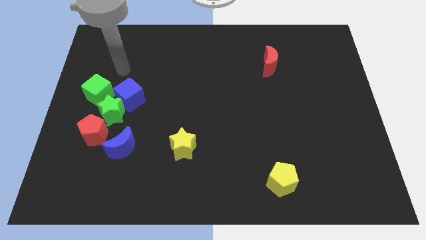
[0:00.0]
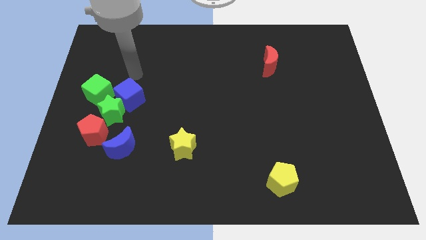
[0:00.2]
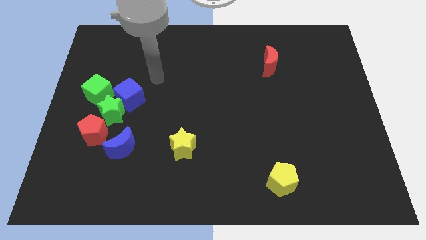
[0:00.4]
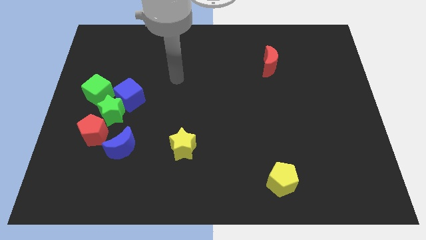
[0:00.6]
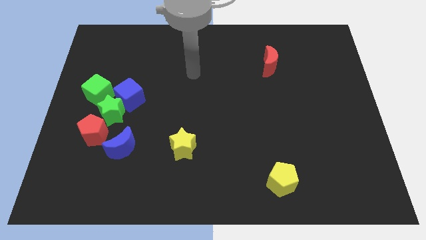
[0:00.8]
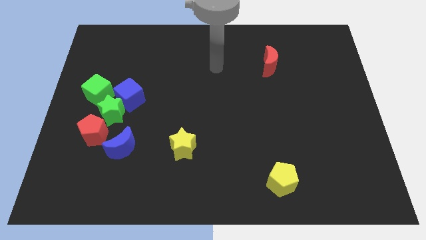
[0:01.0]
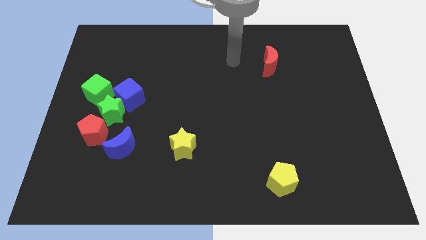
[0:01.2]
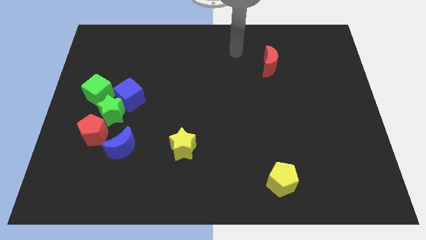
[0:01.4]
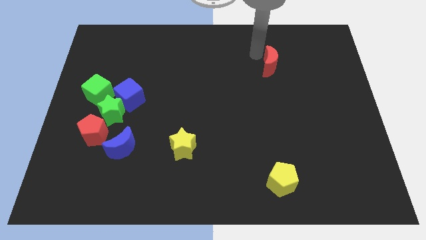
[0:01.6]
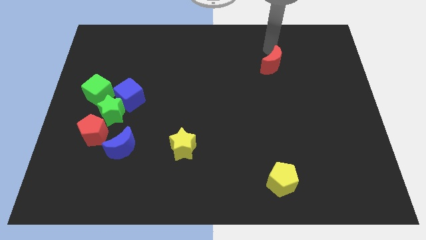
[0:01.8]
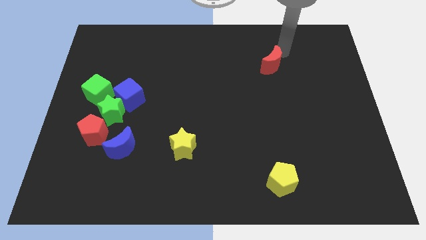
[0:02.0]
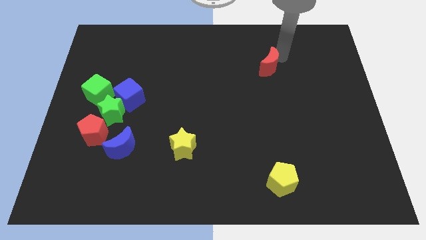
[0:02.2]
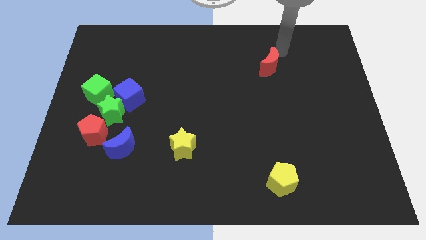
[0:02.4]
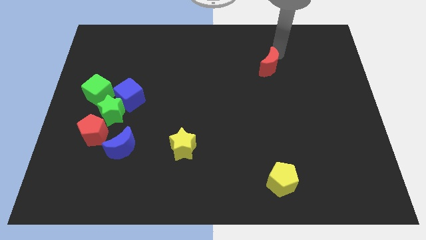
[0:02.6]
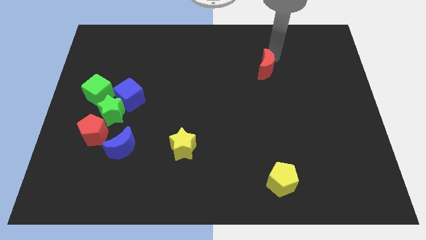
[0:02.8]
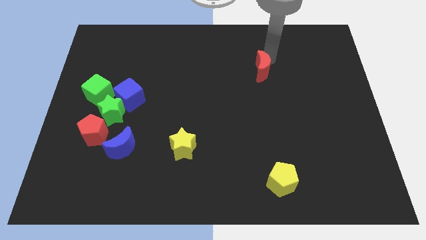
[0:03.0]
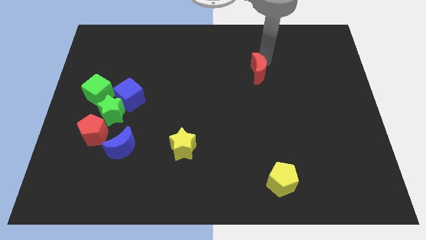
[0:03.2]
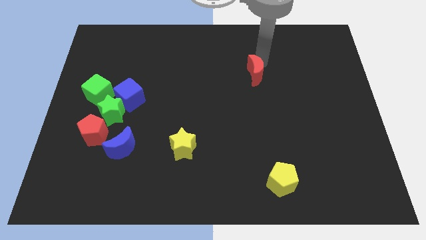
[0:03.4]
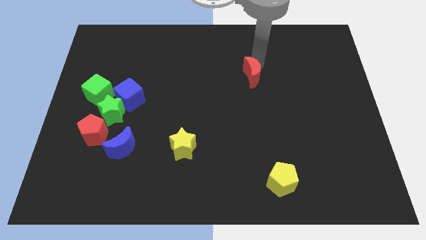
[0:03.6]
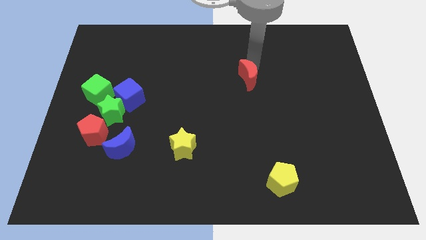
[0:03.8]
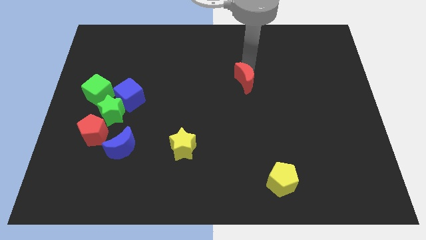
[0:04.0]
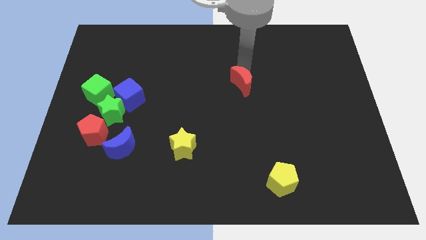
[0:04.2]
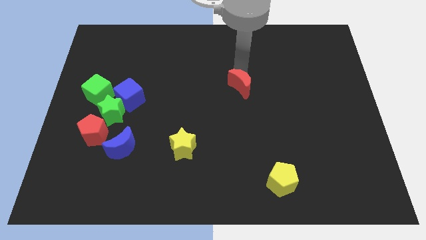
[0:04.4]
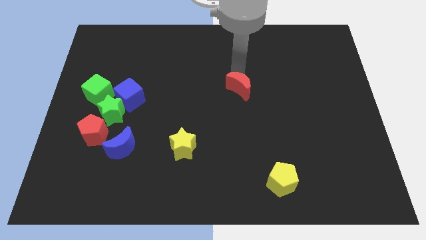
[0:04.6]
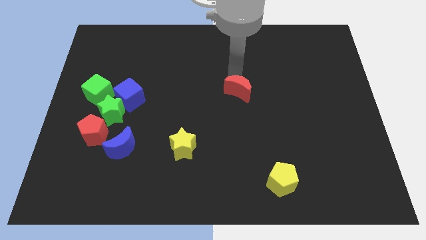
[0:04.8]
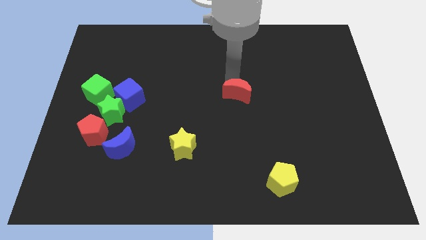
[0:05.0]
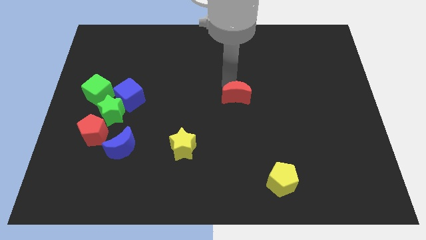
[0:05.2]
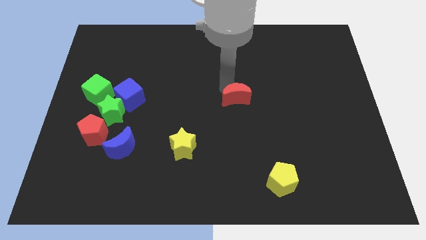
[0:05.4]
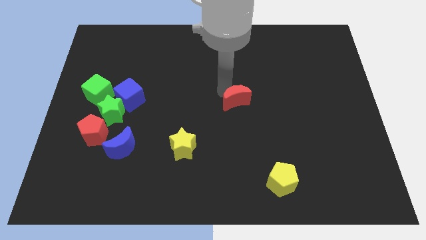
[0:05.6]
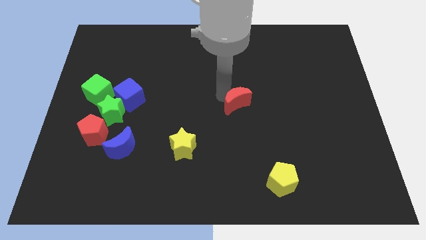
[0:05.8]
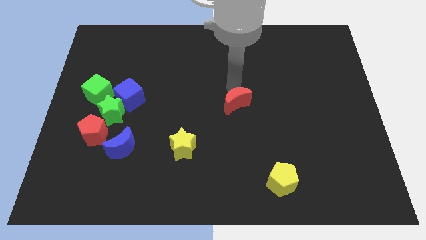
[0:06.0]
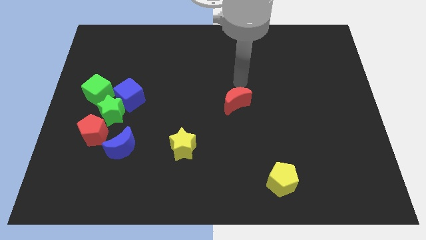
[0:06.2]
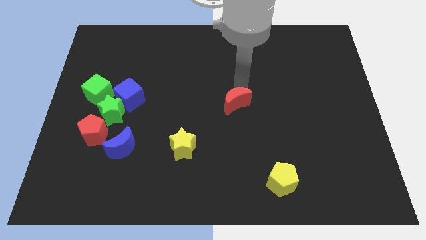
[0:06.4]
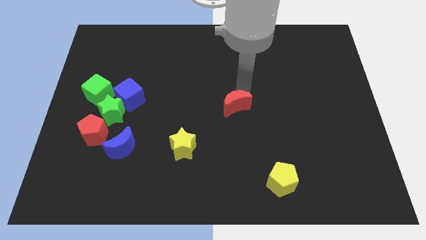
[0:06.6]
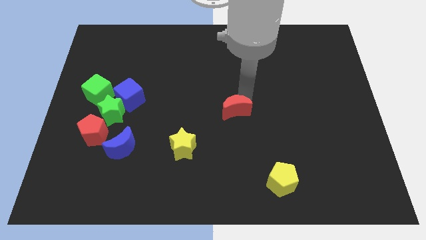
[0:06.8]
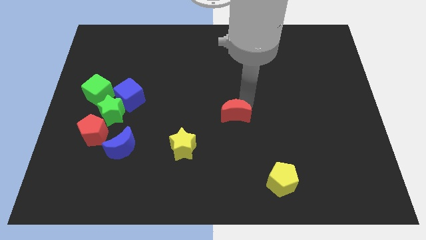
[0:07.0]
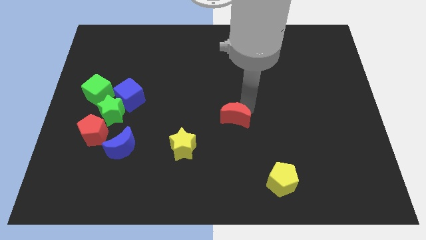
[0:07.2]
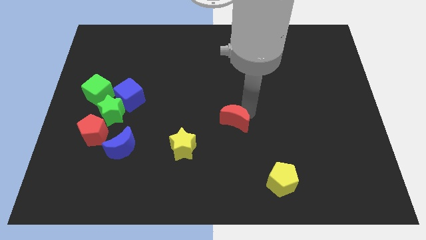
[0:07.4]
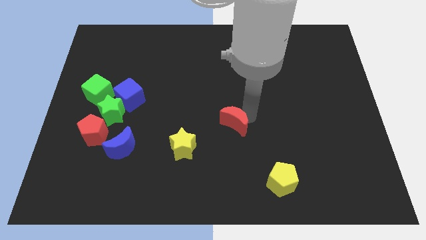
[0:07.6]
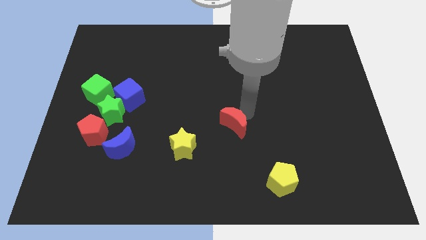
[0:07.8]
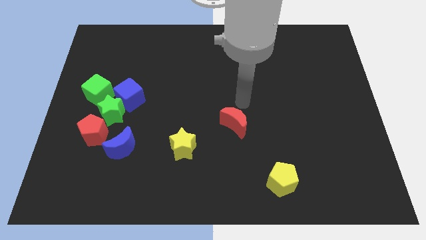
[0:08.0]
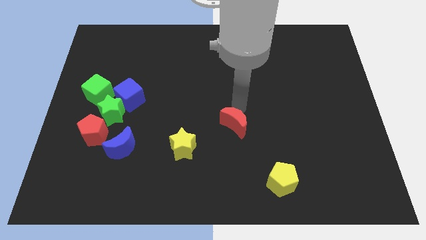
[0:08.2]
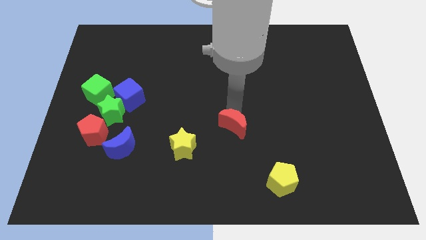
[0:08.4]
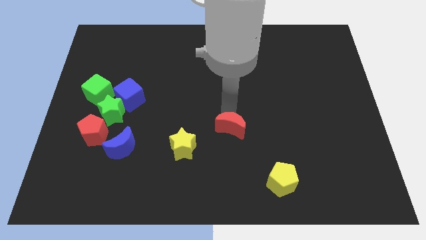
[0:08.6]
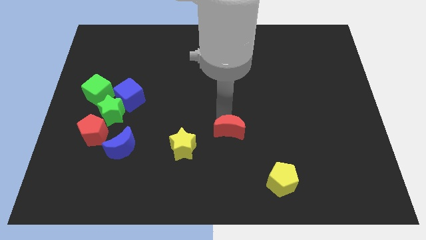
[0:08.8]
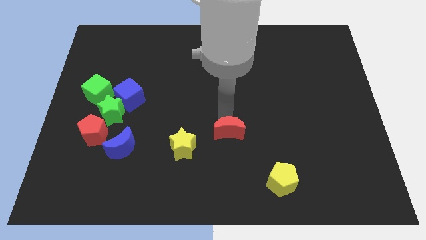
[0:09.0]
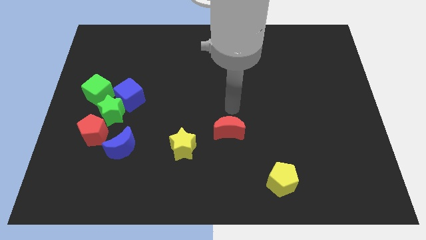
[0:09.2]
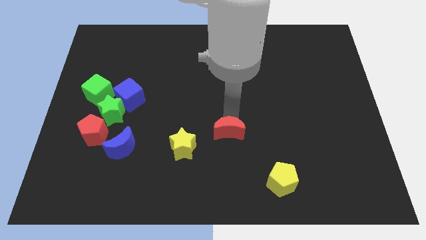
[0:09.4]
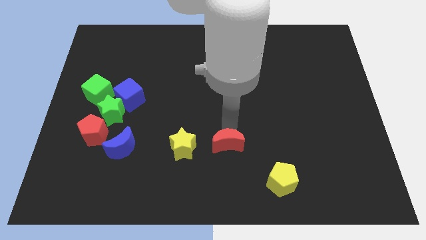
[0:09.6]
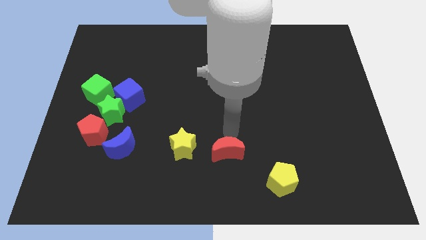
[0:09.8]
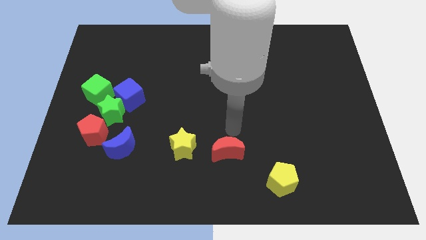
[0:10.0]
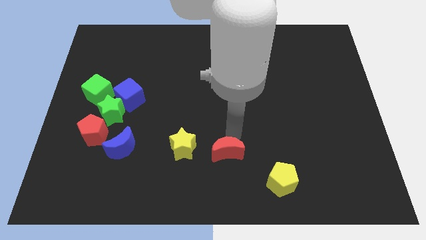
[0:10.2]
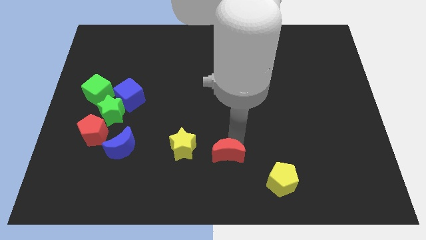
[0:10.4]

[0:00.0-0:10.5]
move the red moon to the bottom side

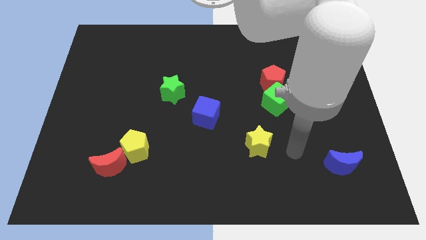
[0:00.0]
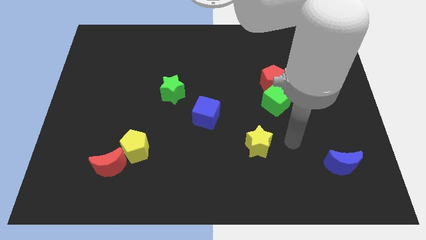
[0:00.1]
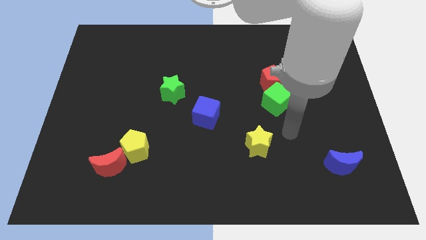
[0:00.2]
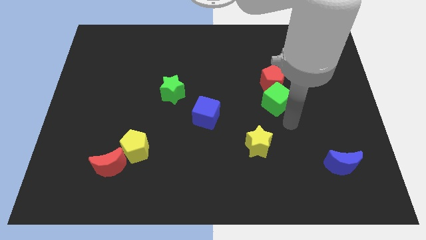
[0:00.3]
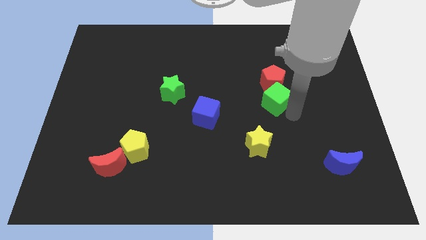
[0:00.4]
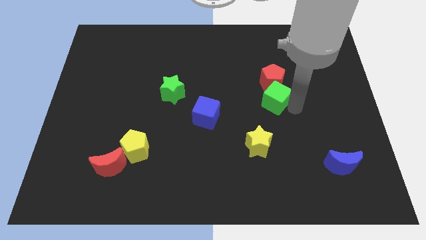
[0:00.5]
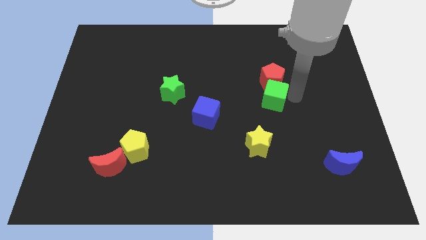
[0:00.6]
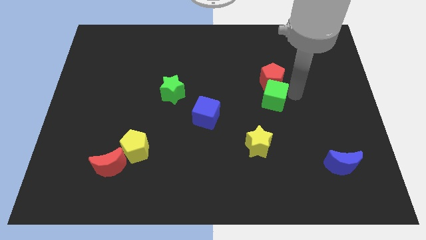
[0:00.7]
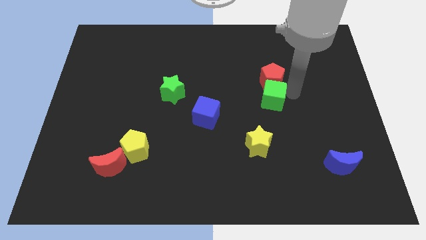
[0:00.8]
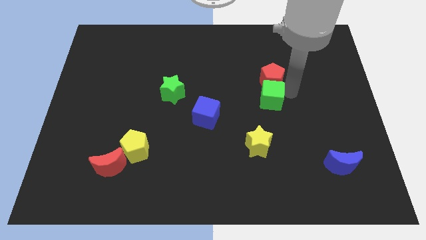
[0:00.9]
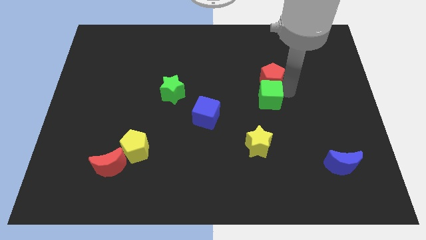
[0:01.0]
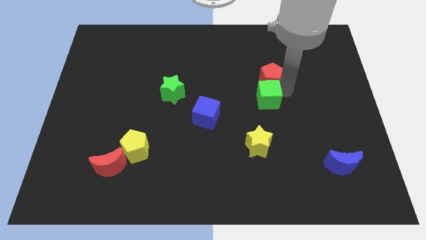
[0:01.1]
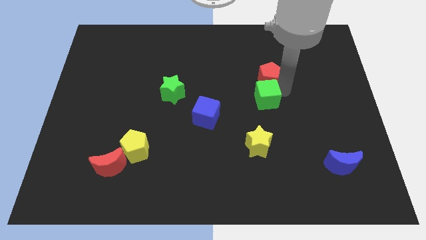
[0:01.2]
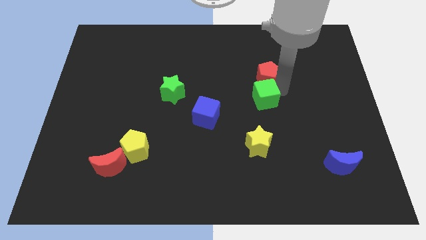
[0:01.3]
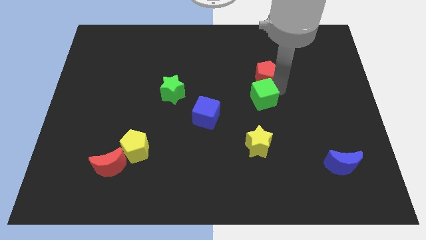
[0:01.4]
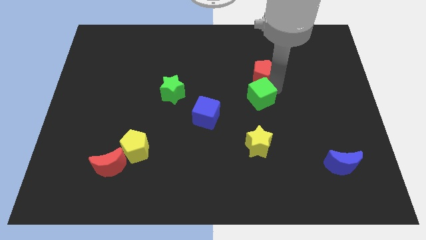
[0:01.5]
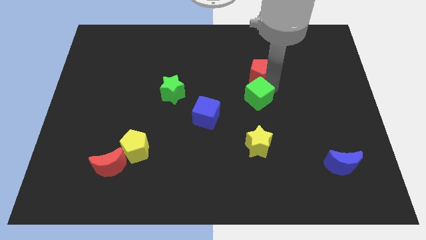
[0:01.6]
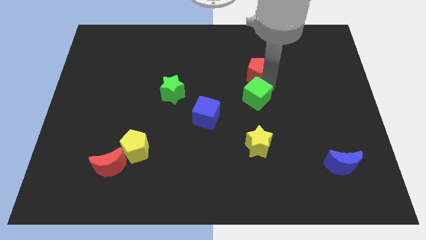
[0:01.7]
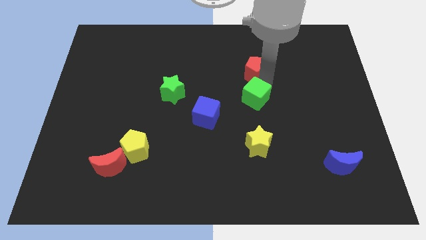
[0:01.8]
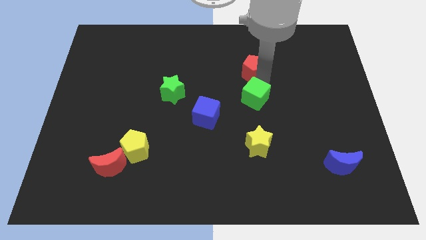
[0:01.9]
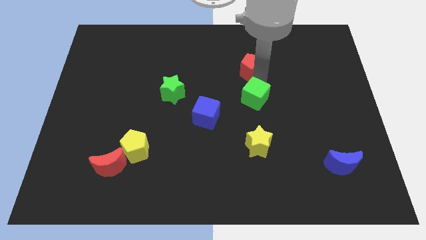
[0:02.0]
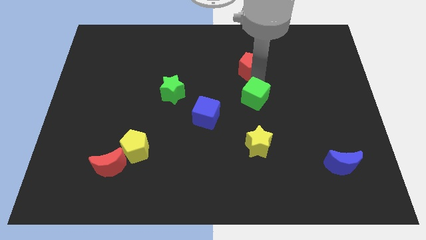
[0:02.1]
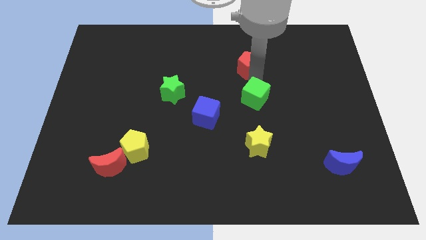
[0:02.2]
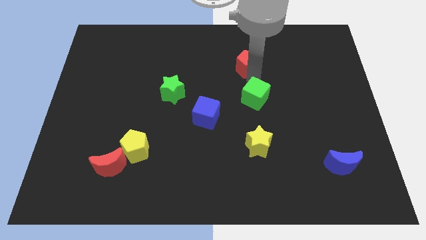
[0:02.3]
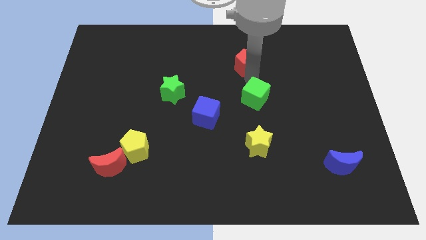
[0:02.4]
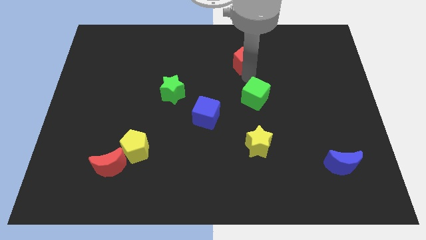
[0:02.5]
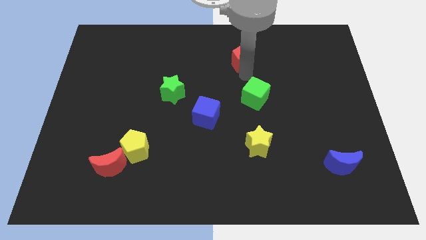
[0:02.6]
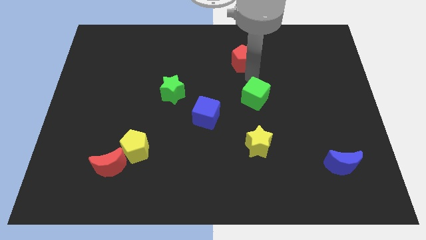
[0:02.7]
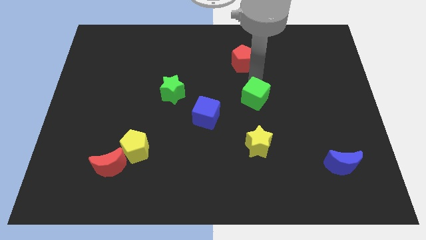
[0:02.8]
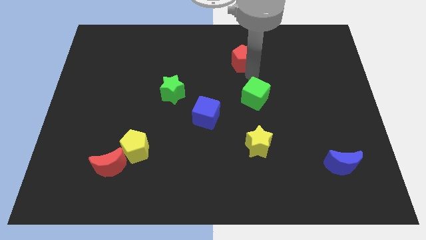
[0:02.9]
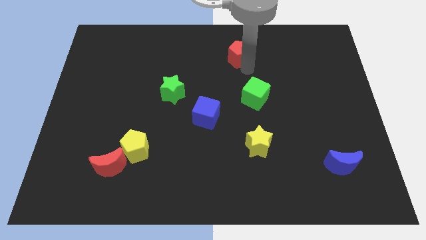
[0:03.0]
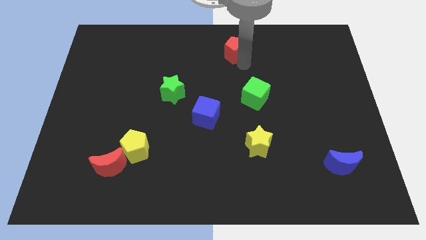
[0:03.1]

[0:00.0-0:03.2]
move the red pentagon to the towards your base
